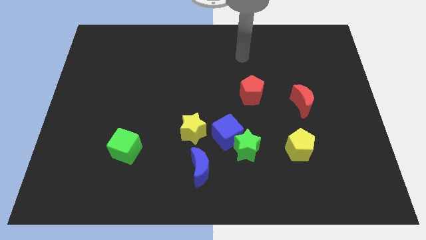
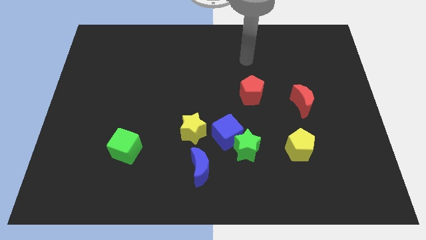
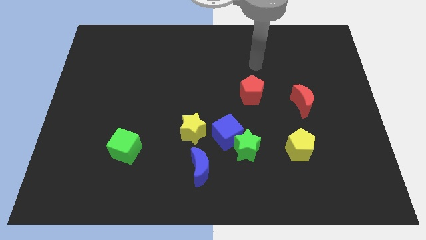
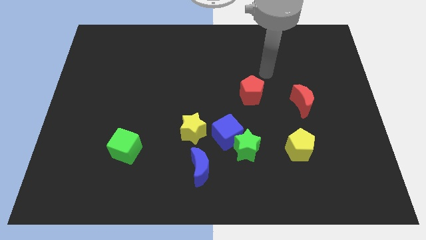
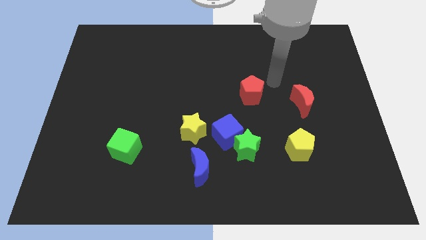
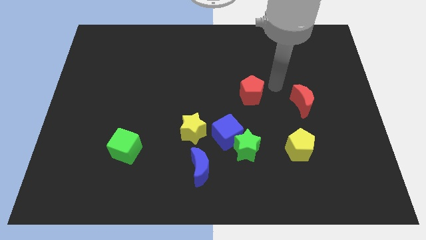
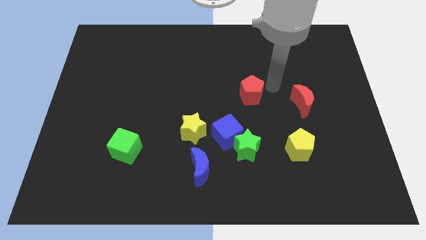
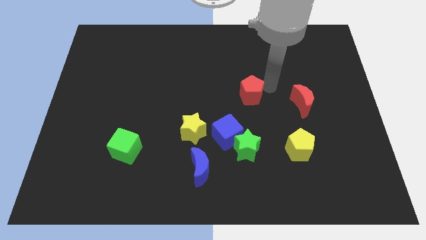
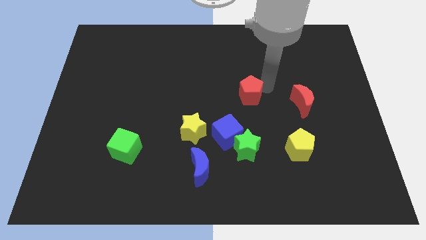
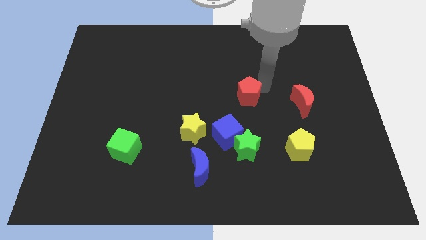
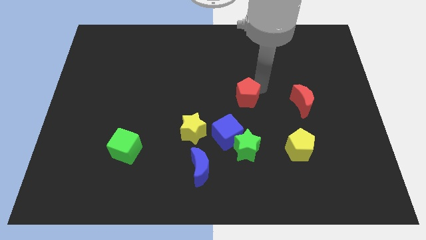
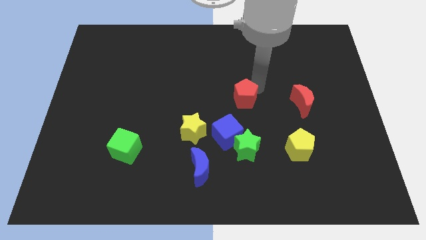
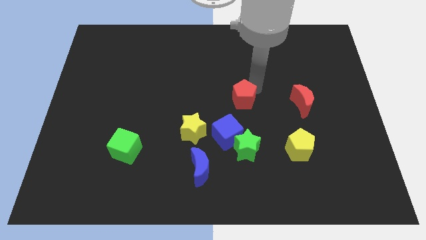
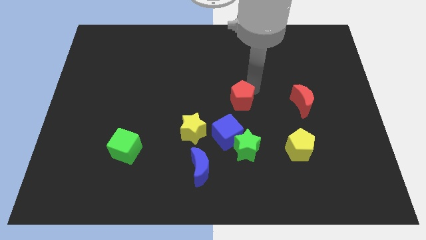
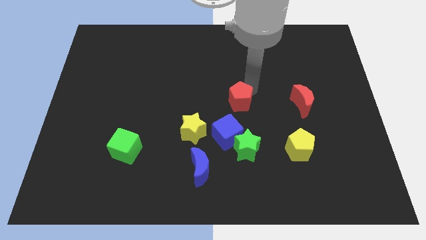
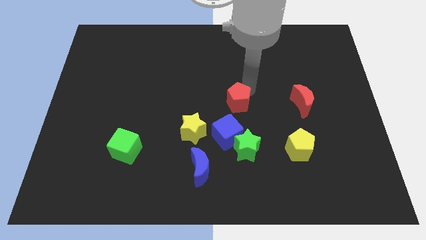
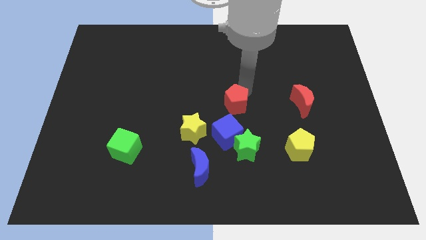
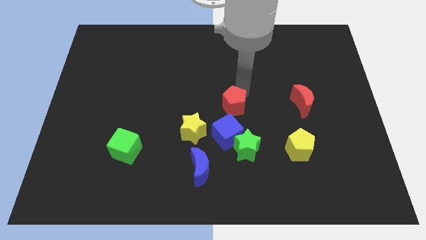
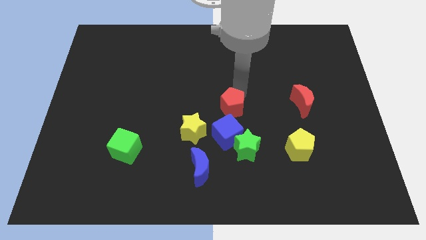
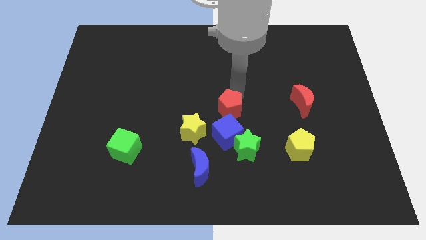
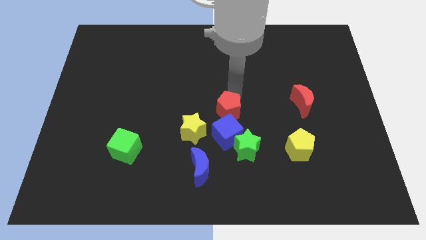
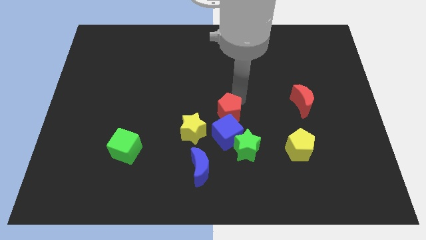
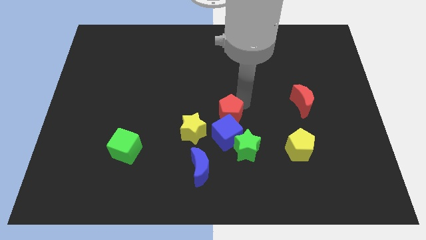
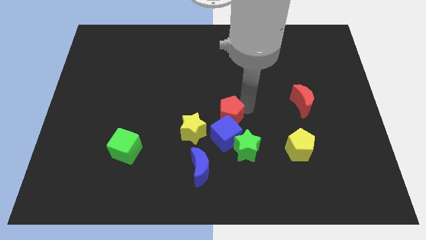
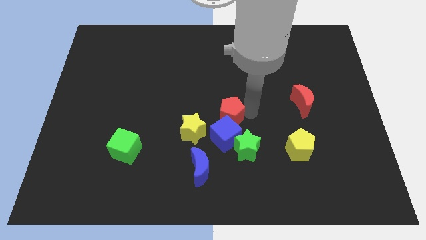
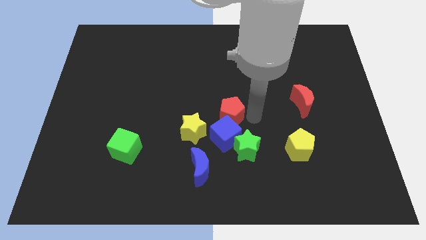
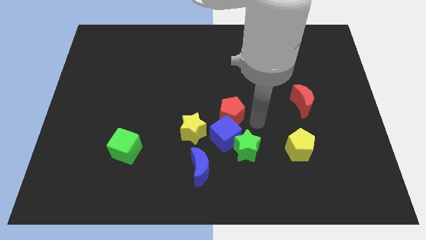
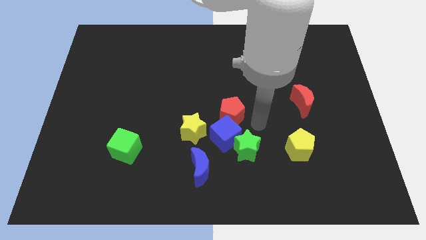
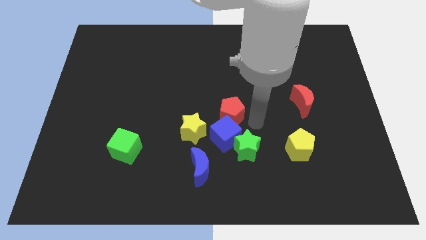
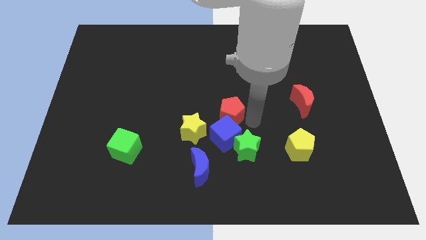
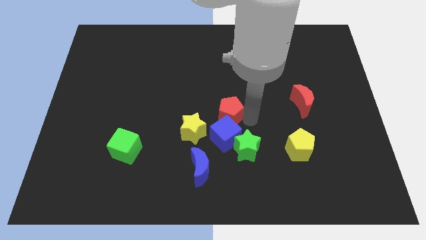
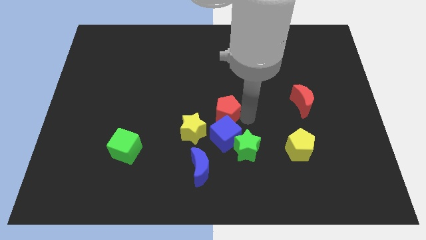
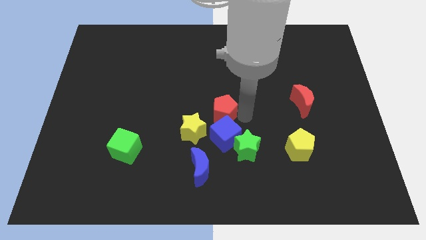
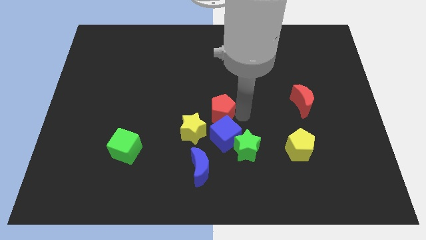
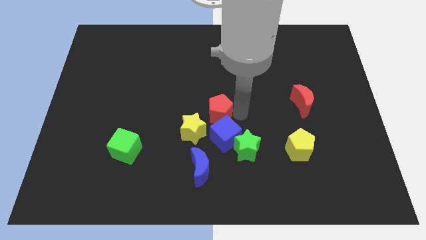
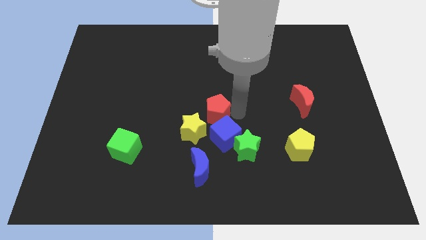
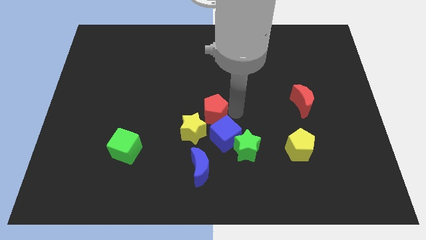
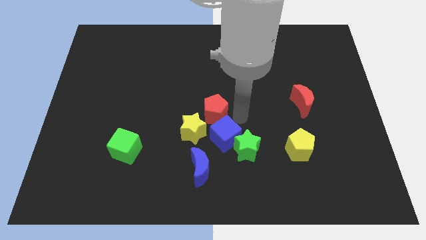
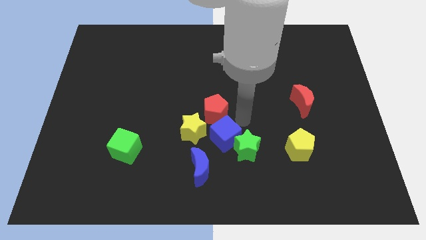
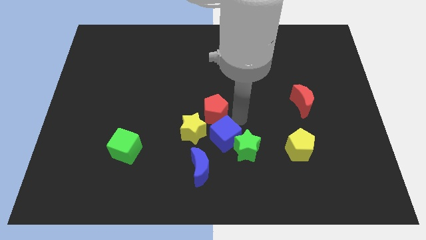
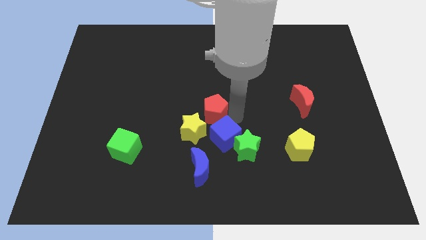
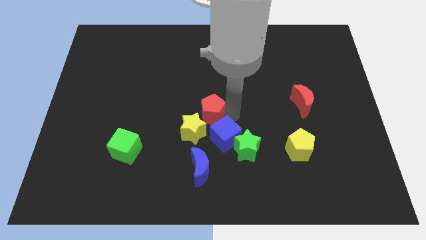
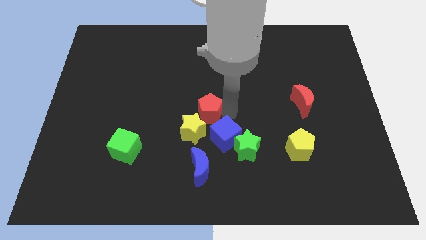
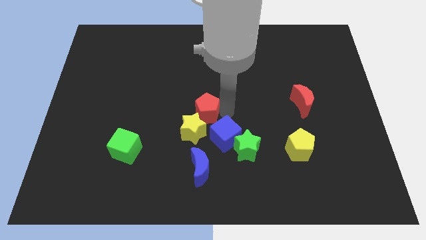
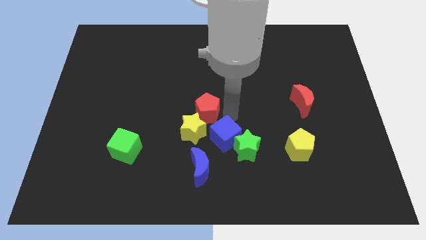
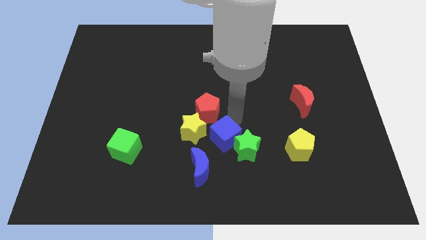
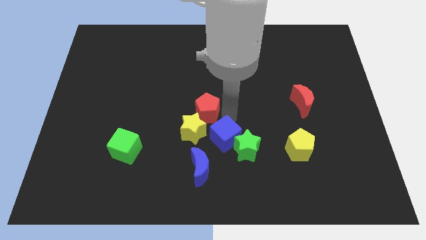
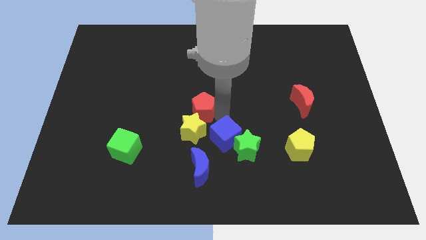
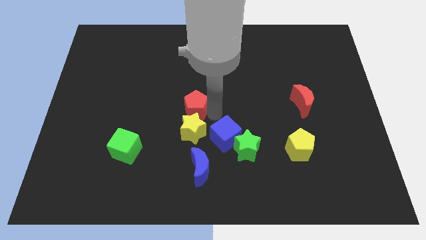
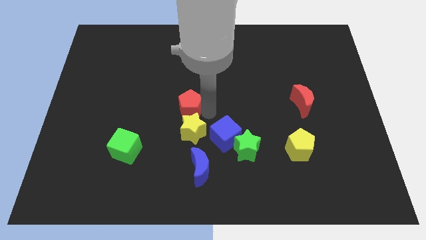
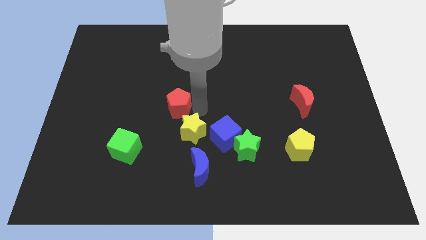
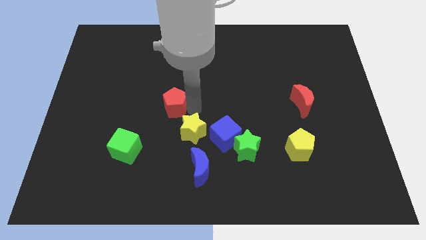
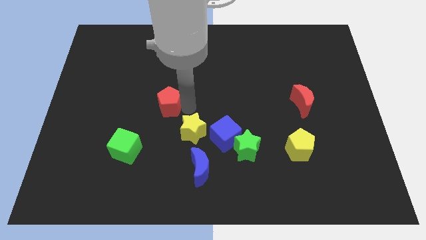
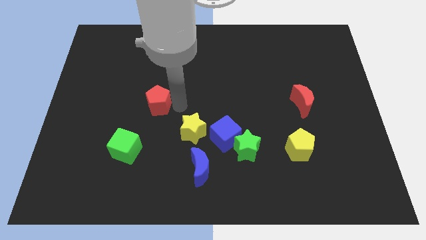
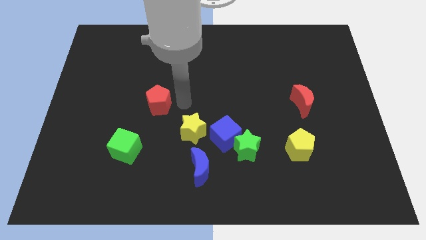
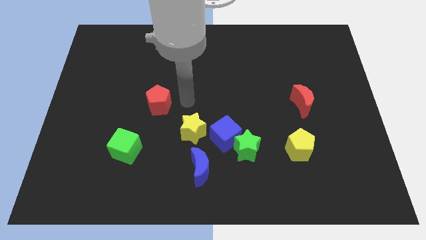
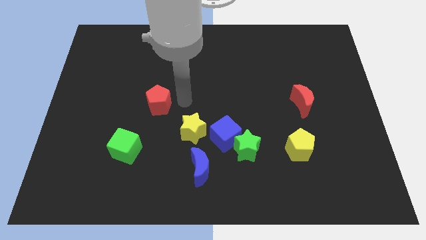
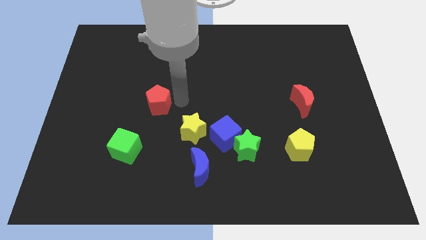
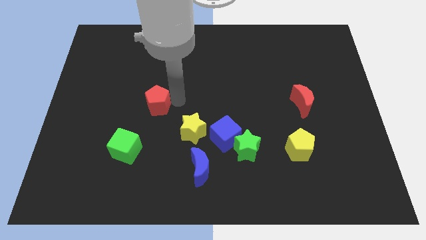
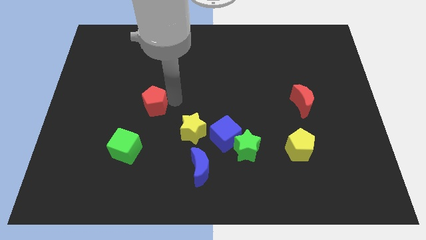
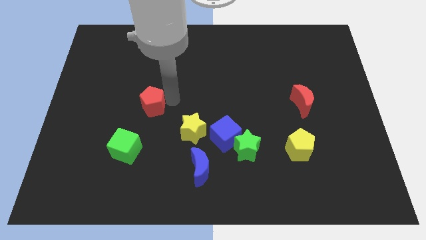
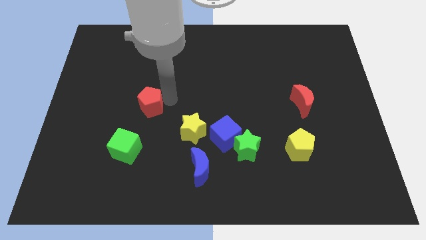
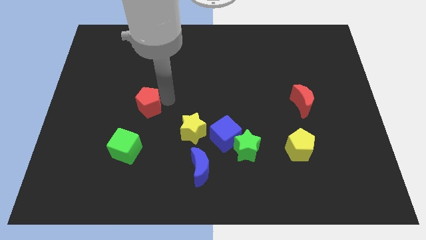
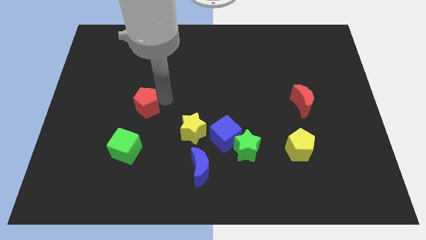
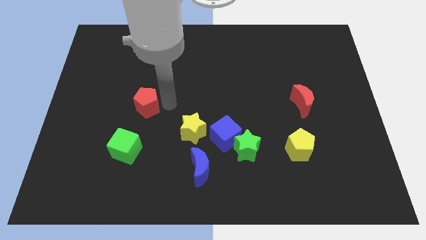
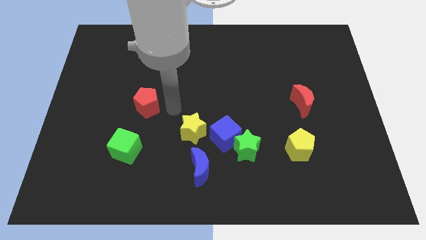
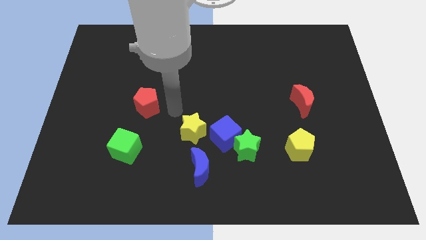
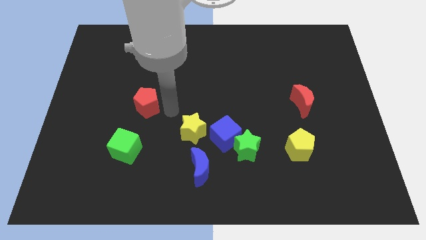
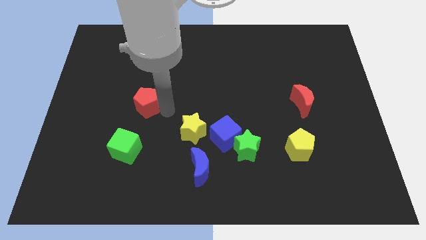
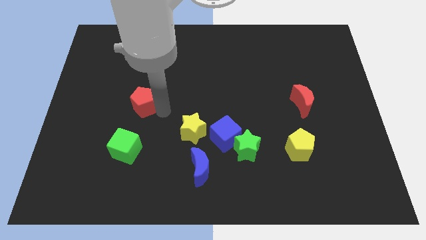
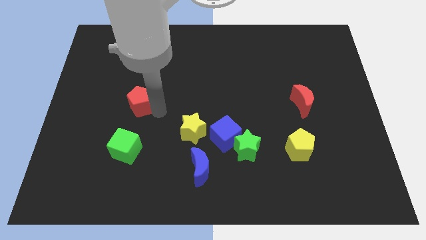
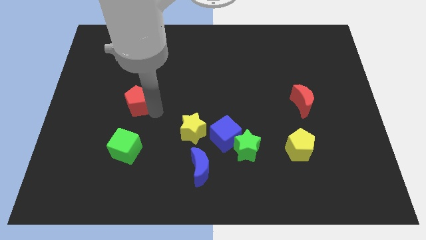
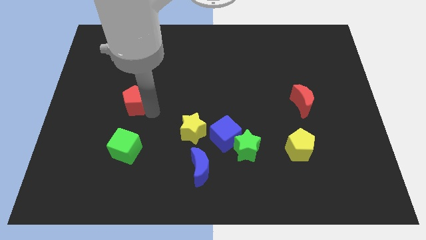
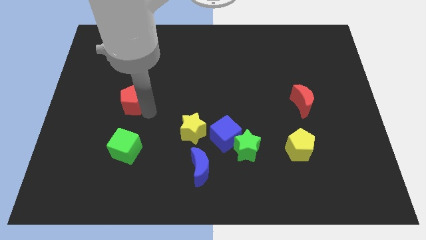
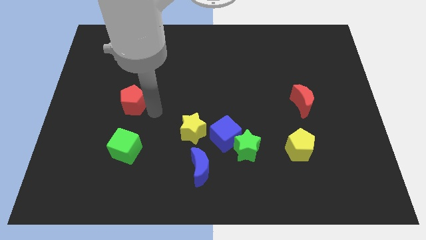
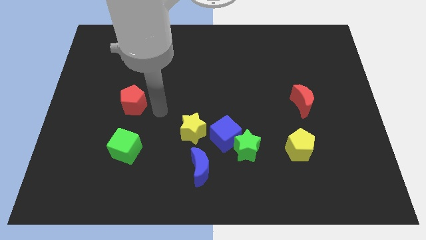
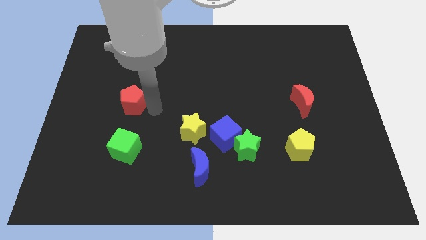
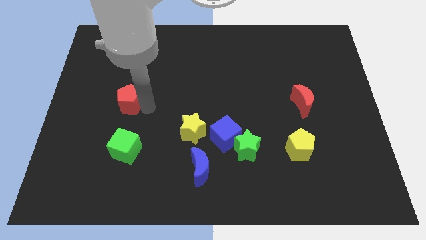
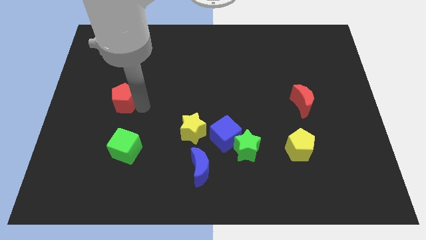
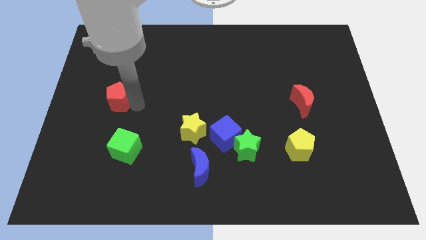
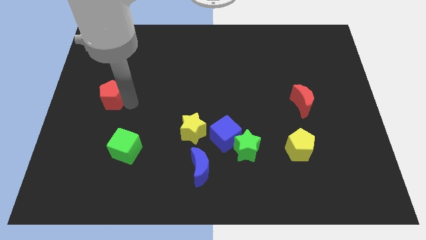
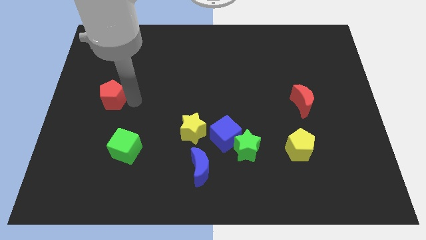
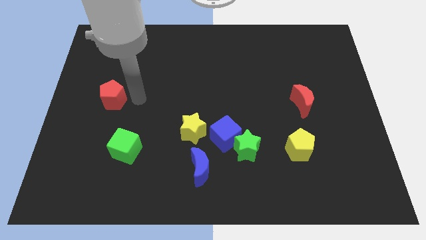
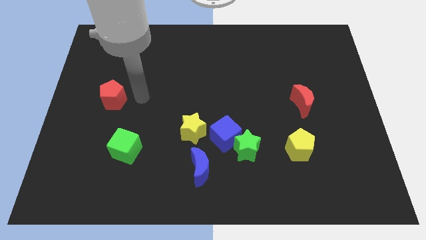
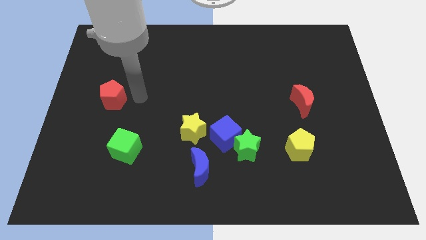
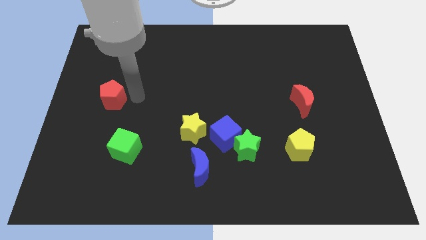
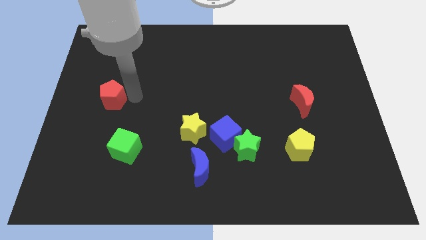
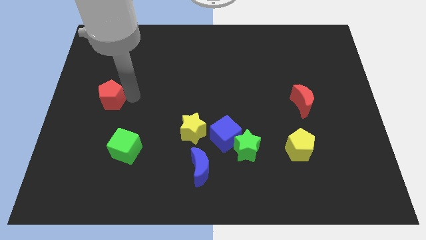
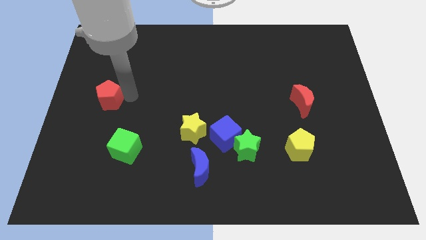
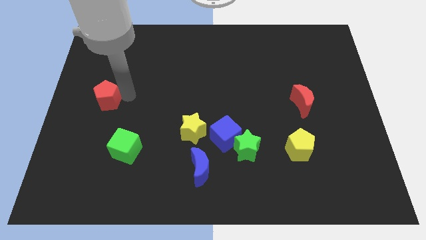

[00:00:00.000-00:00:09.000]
move the red pentagon to the left side
